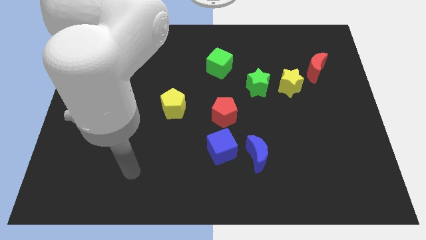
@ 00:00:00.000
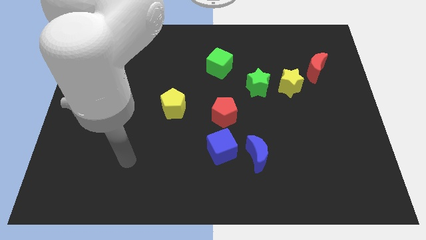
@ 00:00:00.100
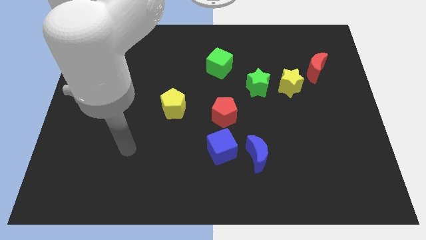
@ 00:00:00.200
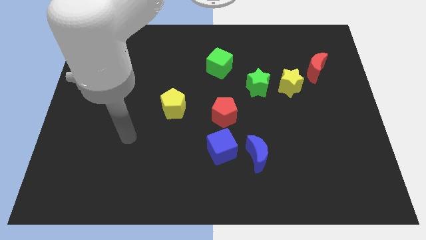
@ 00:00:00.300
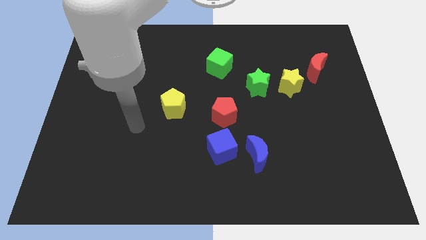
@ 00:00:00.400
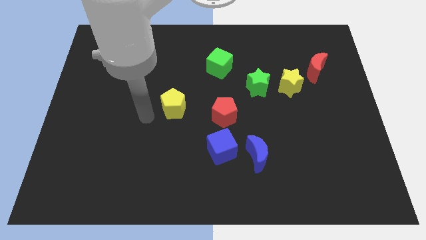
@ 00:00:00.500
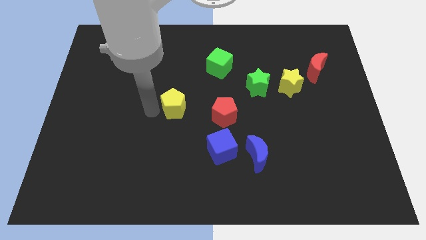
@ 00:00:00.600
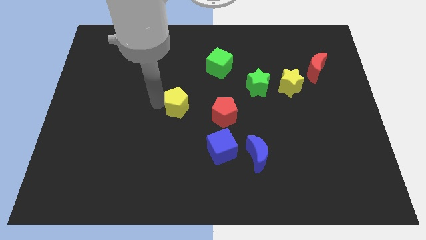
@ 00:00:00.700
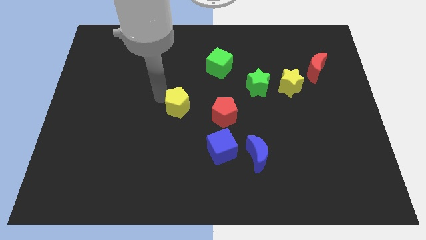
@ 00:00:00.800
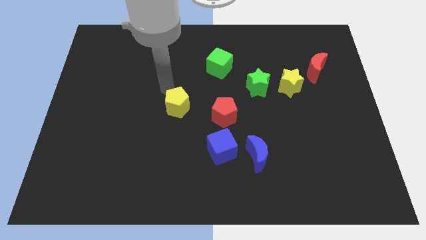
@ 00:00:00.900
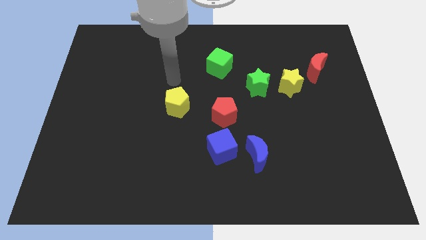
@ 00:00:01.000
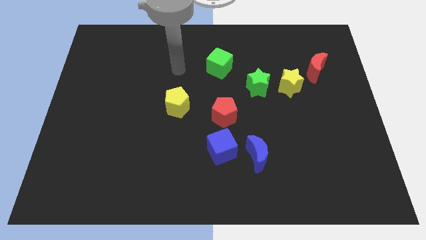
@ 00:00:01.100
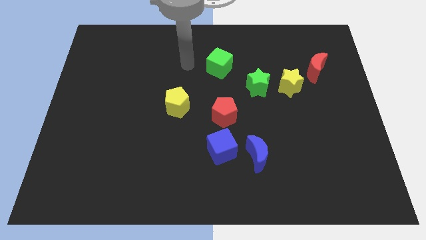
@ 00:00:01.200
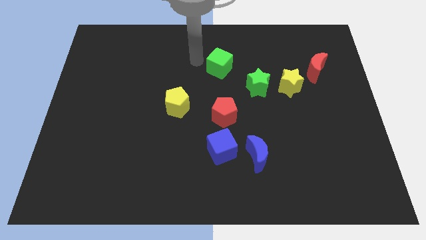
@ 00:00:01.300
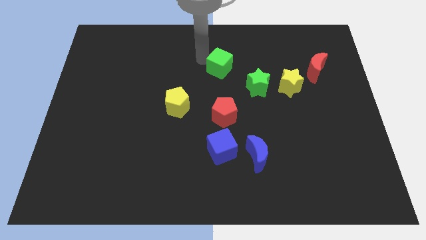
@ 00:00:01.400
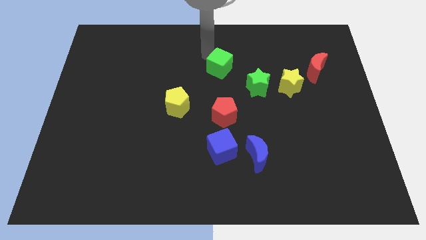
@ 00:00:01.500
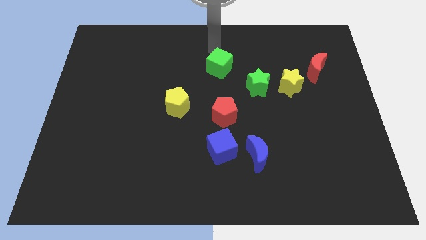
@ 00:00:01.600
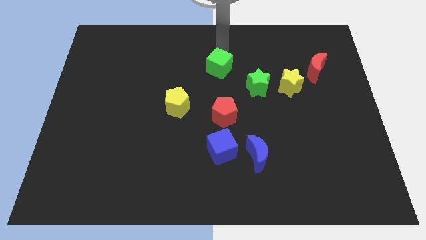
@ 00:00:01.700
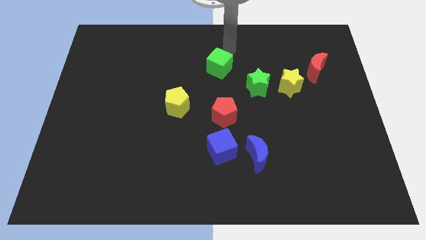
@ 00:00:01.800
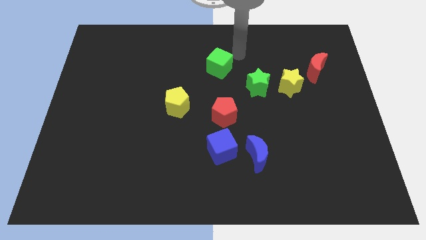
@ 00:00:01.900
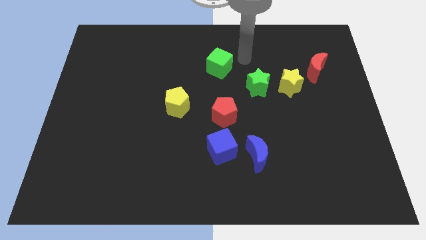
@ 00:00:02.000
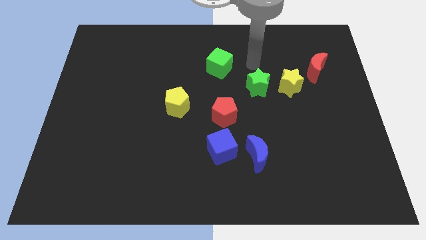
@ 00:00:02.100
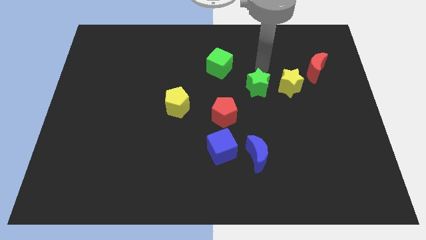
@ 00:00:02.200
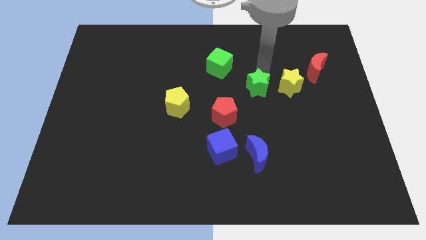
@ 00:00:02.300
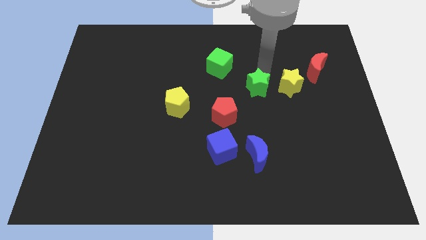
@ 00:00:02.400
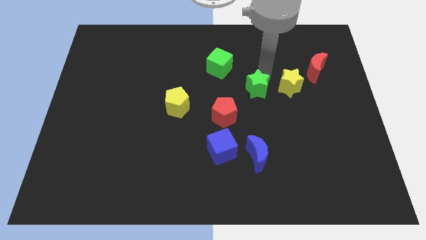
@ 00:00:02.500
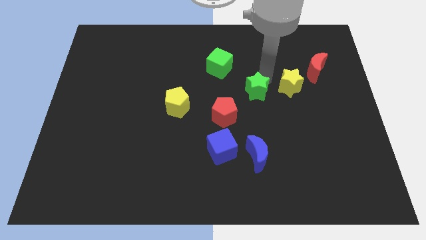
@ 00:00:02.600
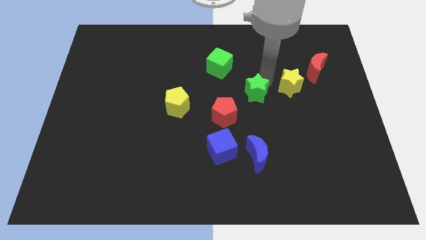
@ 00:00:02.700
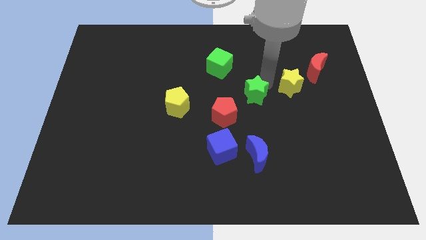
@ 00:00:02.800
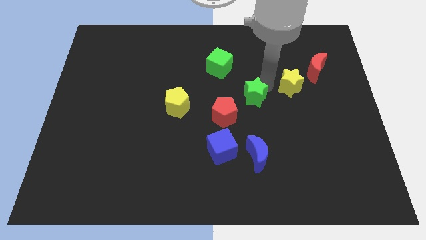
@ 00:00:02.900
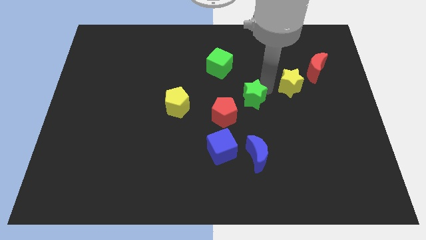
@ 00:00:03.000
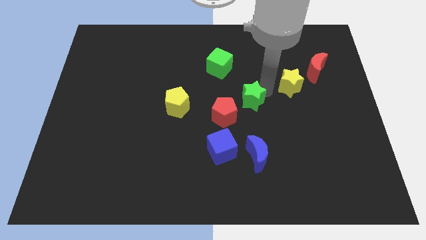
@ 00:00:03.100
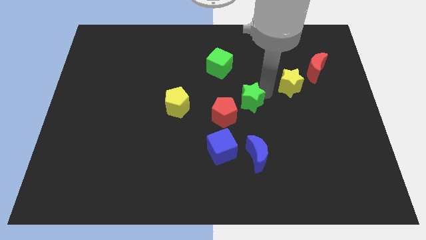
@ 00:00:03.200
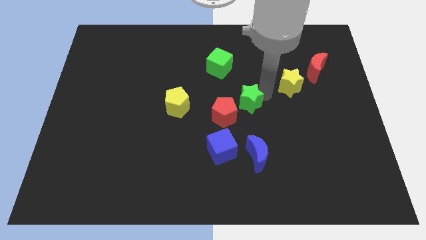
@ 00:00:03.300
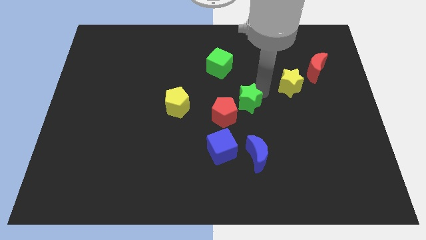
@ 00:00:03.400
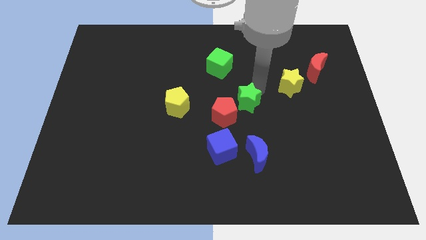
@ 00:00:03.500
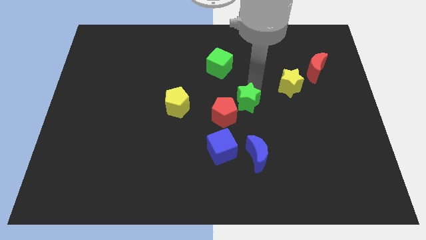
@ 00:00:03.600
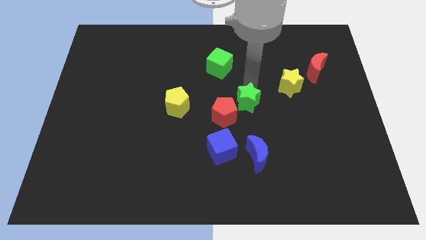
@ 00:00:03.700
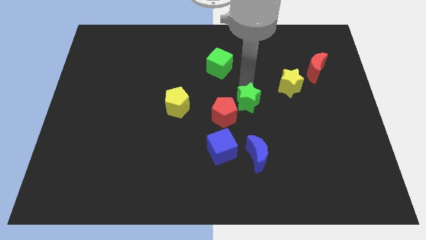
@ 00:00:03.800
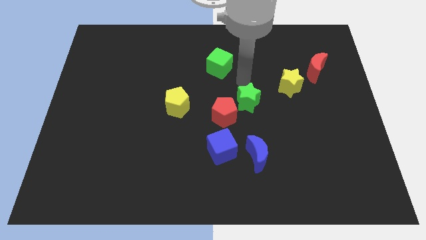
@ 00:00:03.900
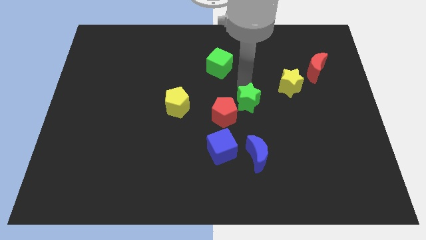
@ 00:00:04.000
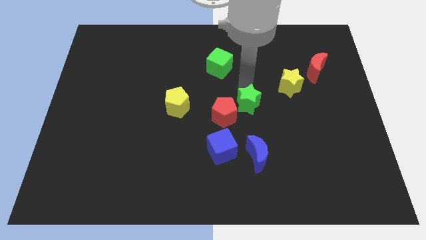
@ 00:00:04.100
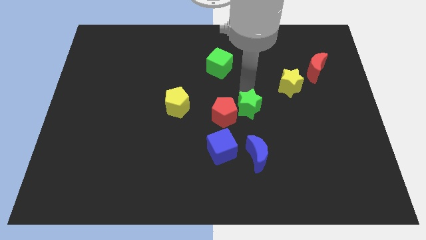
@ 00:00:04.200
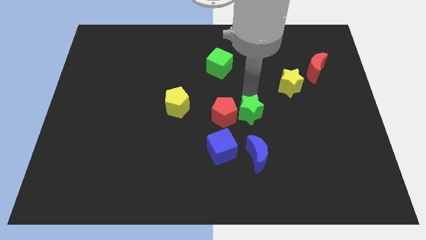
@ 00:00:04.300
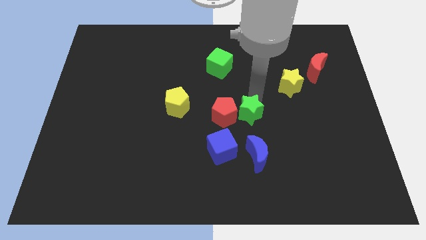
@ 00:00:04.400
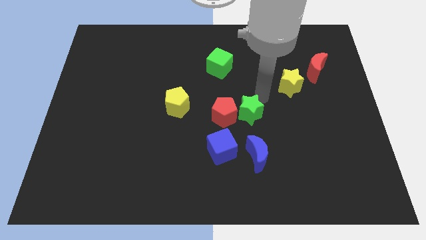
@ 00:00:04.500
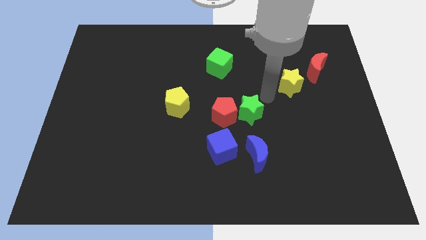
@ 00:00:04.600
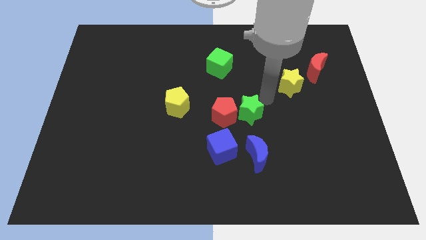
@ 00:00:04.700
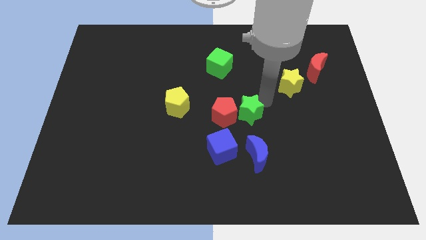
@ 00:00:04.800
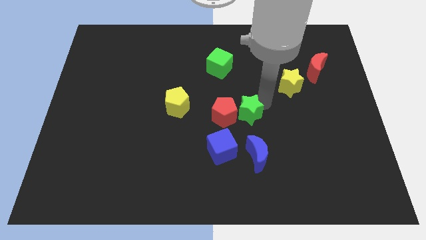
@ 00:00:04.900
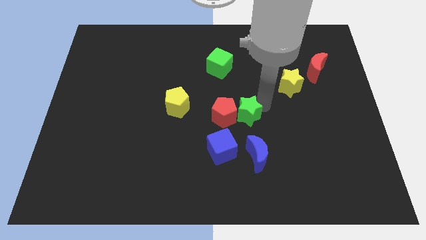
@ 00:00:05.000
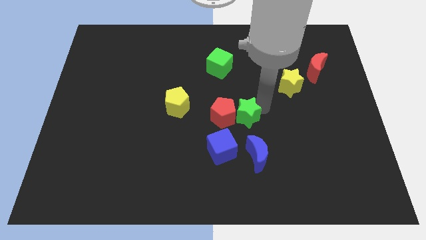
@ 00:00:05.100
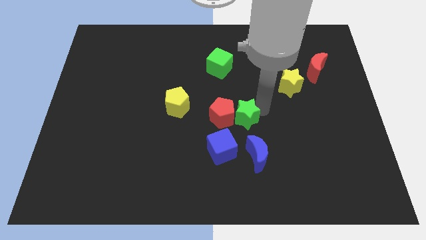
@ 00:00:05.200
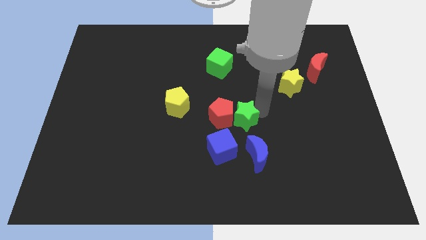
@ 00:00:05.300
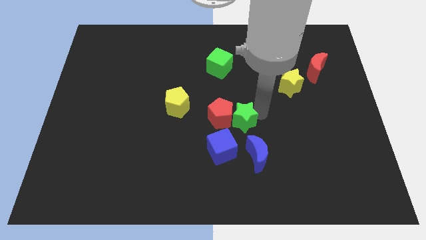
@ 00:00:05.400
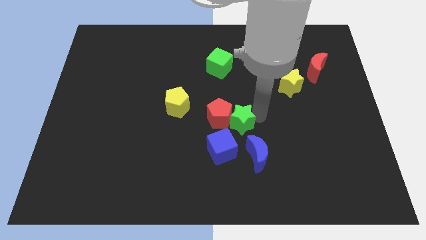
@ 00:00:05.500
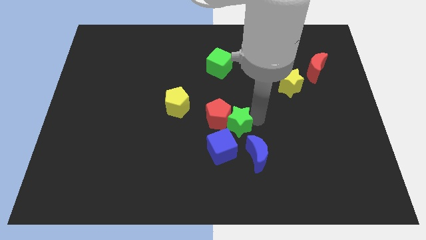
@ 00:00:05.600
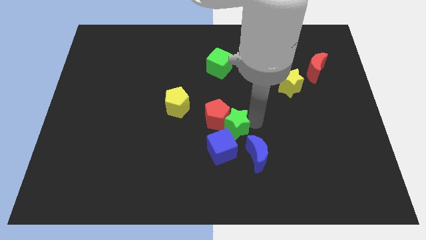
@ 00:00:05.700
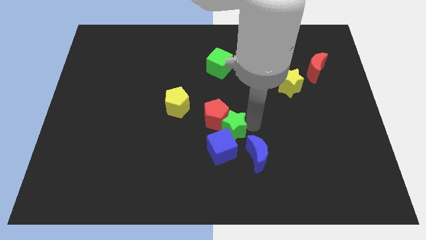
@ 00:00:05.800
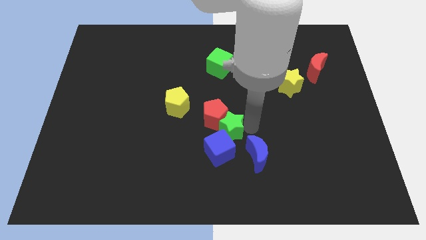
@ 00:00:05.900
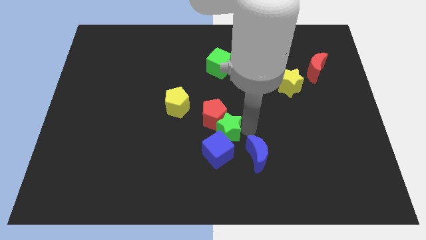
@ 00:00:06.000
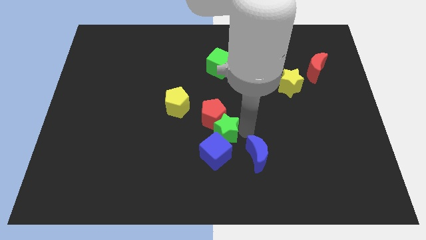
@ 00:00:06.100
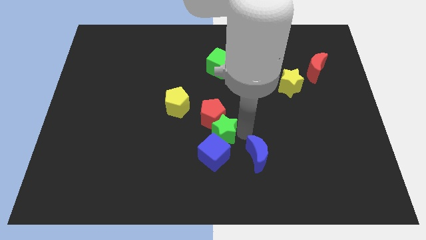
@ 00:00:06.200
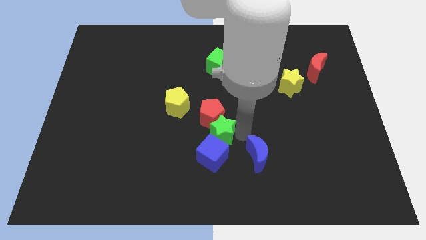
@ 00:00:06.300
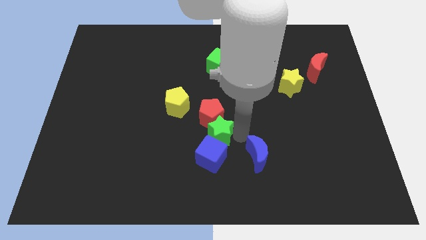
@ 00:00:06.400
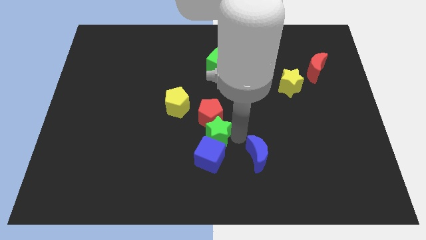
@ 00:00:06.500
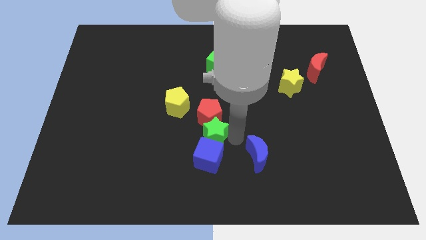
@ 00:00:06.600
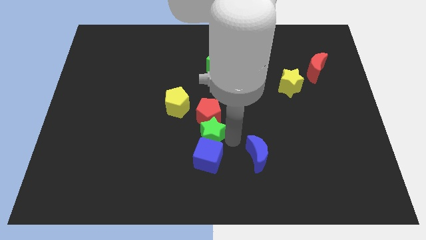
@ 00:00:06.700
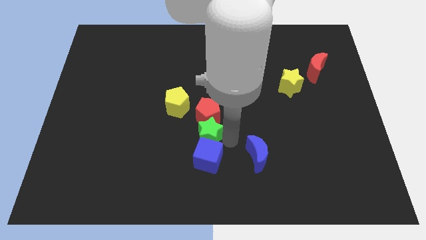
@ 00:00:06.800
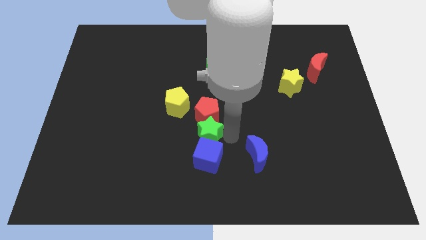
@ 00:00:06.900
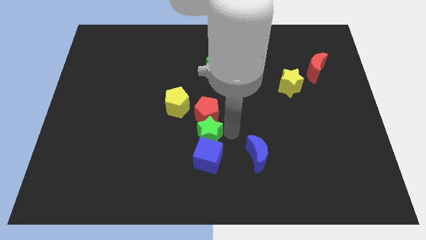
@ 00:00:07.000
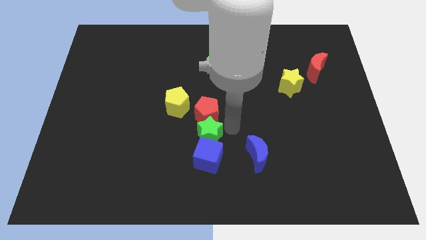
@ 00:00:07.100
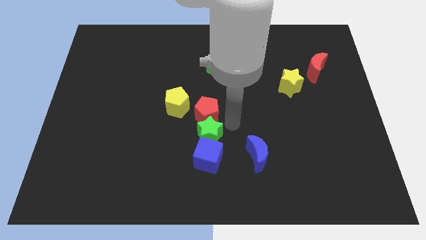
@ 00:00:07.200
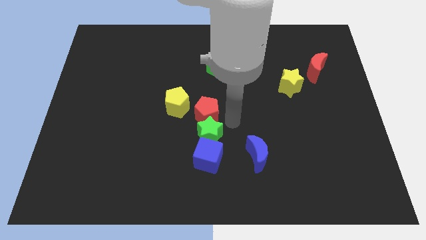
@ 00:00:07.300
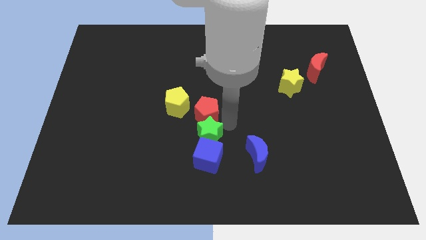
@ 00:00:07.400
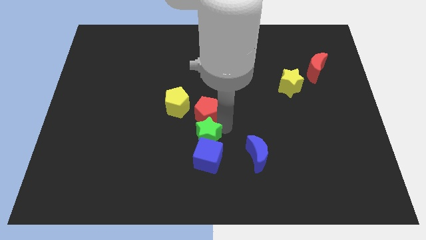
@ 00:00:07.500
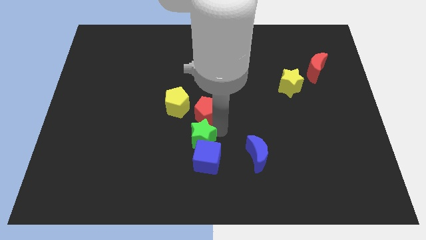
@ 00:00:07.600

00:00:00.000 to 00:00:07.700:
push the green star down and then to the left

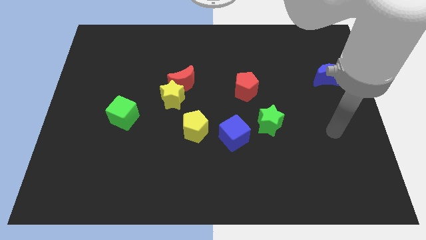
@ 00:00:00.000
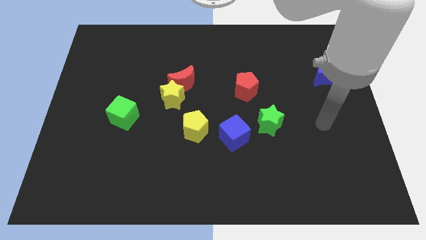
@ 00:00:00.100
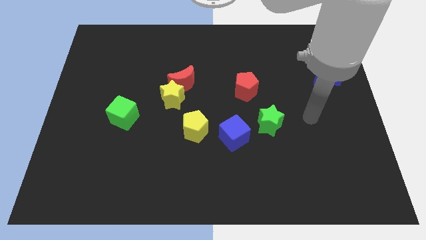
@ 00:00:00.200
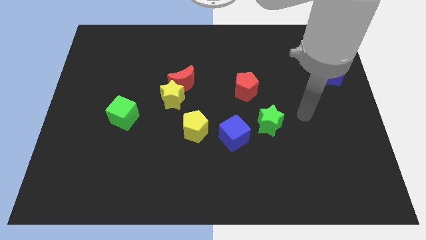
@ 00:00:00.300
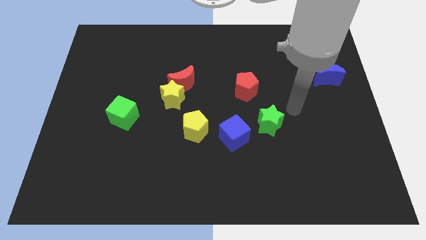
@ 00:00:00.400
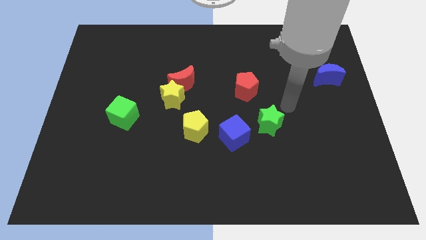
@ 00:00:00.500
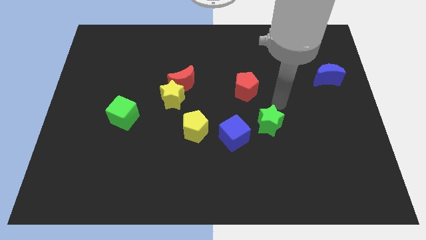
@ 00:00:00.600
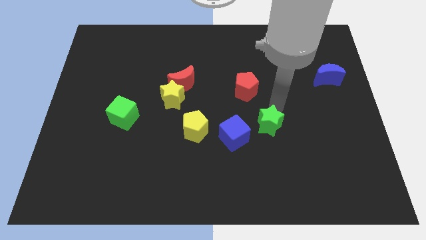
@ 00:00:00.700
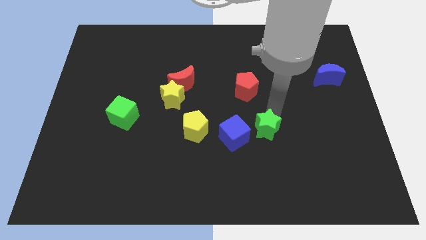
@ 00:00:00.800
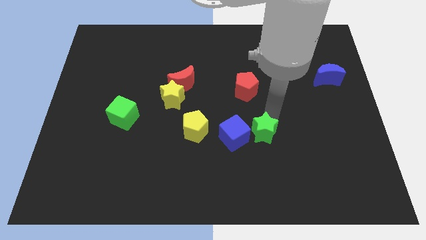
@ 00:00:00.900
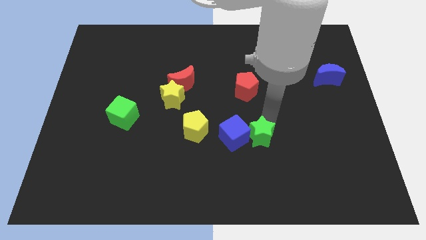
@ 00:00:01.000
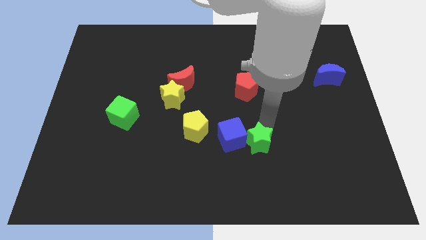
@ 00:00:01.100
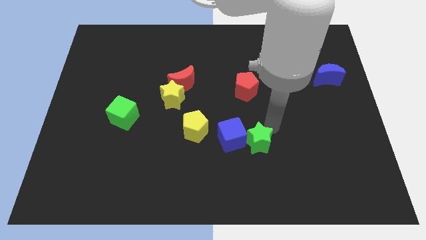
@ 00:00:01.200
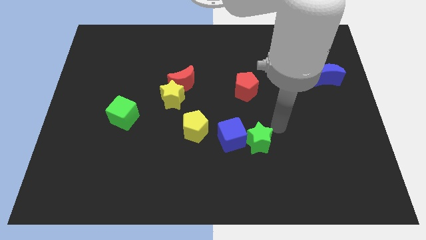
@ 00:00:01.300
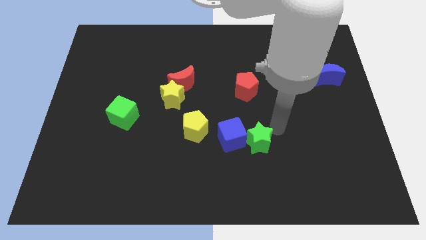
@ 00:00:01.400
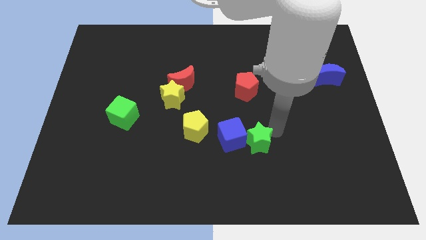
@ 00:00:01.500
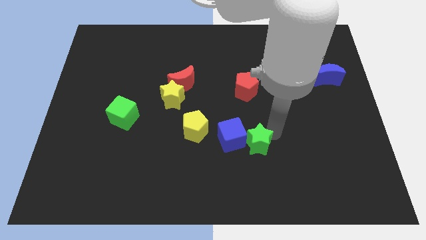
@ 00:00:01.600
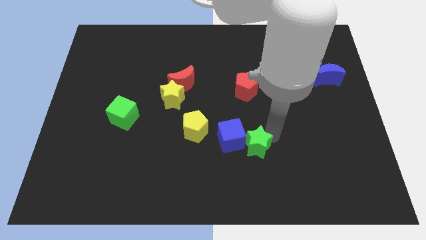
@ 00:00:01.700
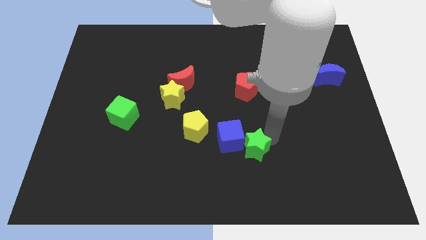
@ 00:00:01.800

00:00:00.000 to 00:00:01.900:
push the green star a bit down and to the left
